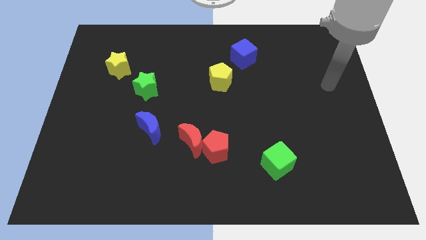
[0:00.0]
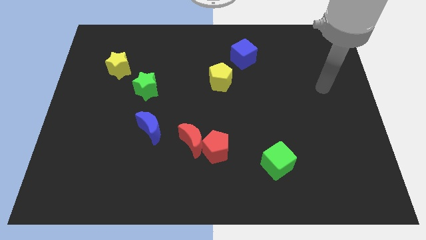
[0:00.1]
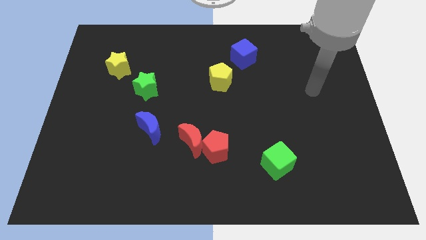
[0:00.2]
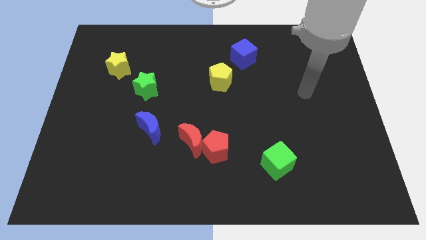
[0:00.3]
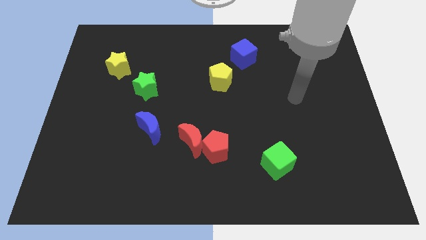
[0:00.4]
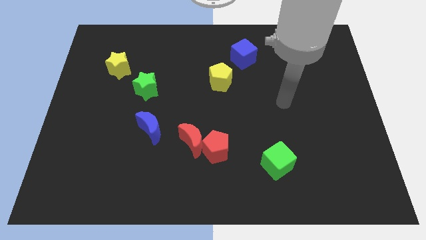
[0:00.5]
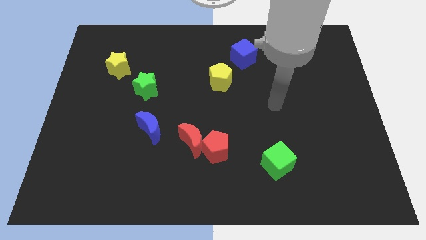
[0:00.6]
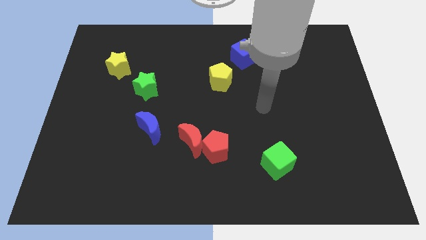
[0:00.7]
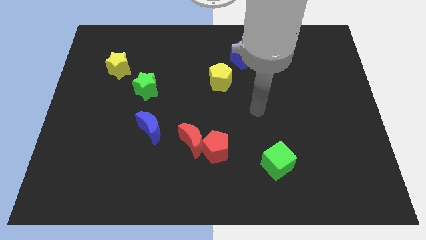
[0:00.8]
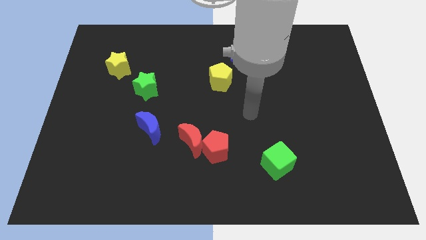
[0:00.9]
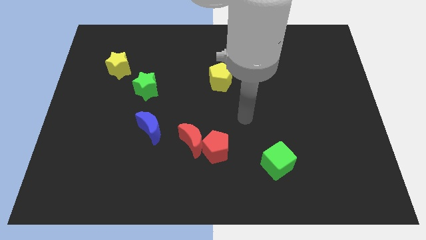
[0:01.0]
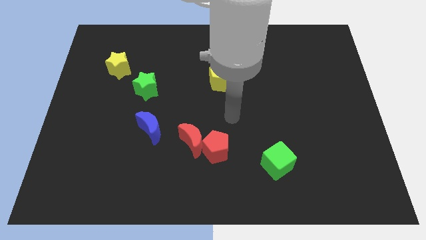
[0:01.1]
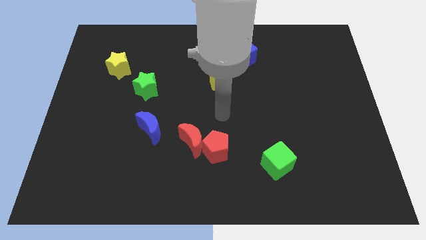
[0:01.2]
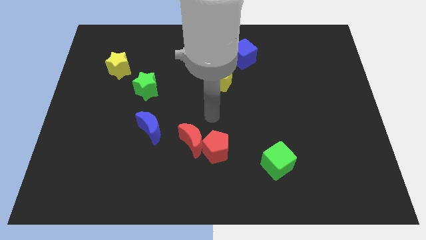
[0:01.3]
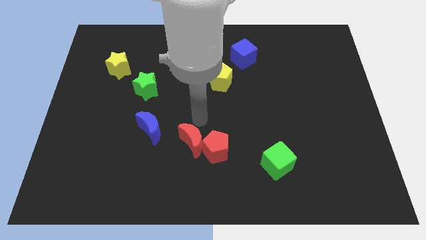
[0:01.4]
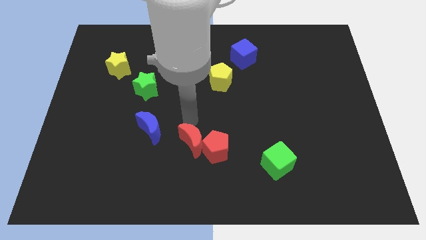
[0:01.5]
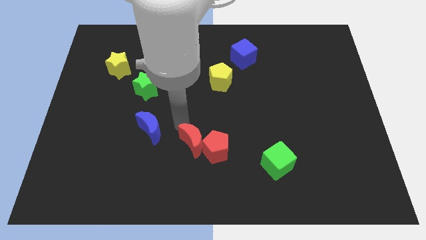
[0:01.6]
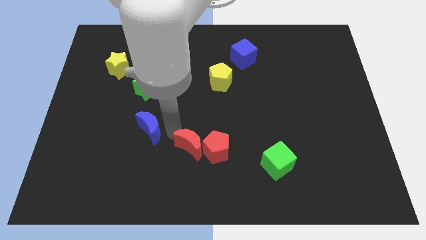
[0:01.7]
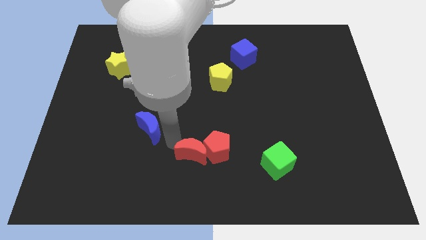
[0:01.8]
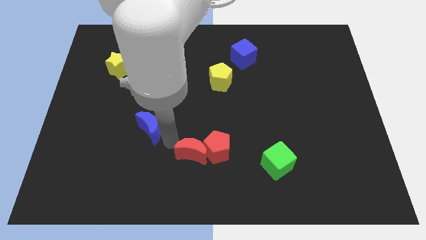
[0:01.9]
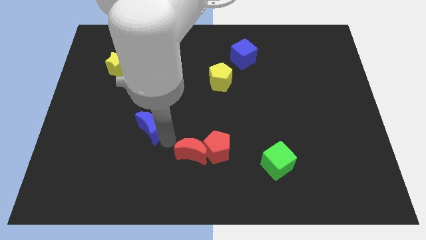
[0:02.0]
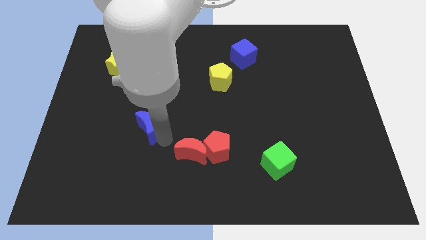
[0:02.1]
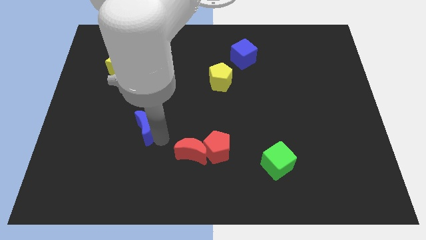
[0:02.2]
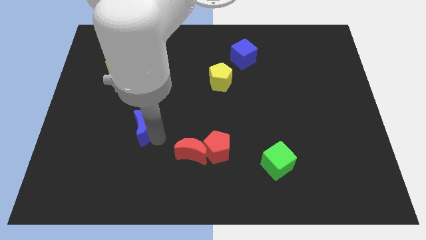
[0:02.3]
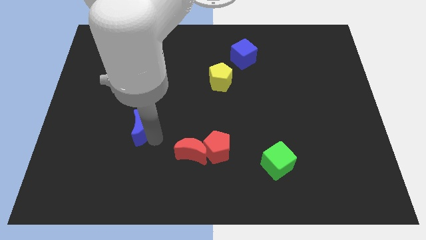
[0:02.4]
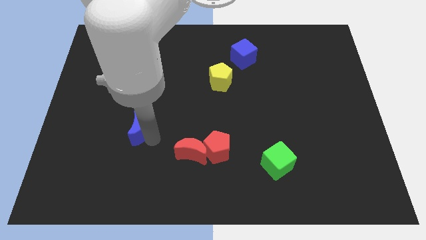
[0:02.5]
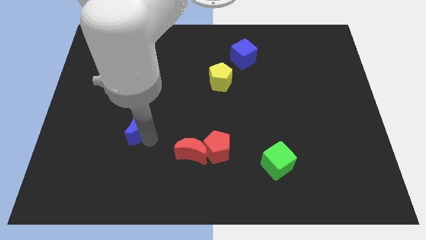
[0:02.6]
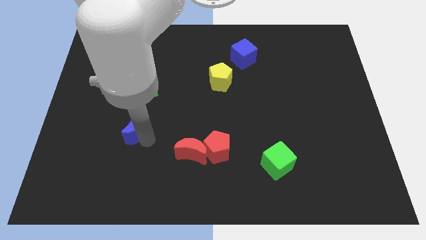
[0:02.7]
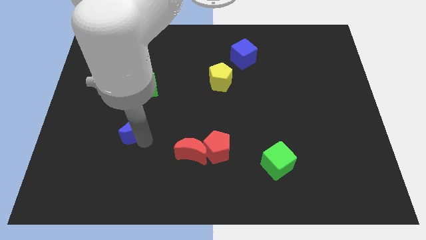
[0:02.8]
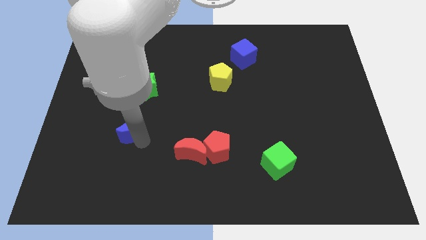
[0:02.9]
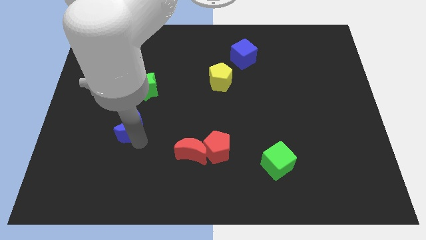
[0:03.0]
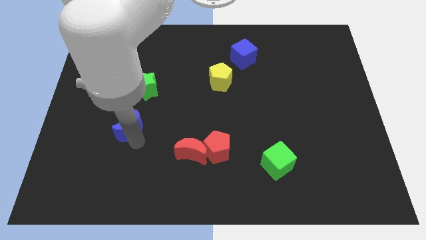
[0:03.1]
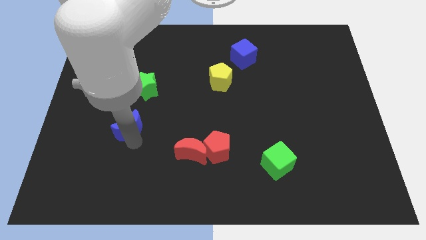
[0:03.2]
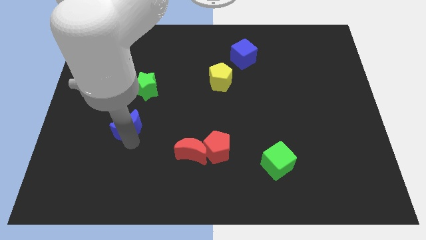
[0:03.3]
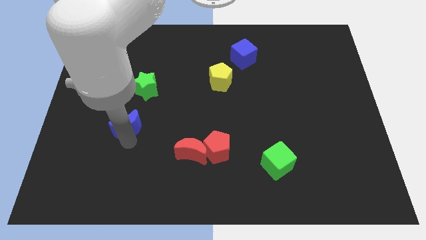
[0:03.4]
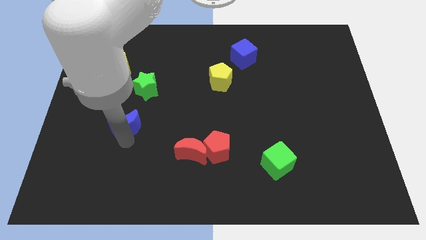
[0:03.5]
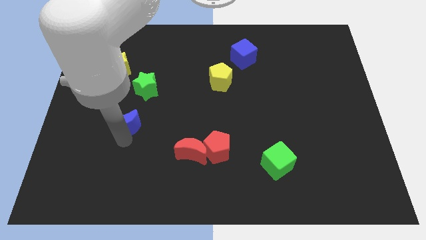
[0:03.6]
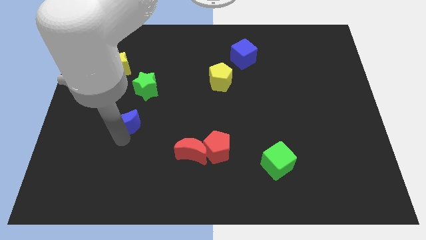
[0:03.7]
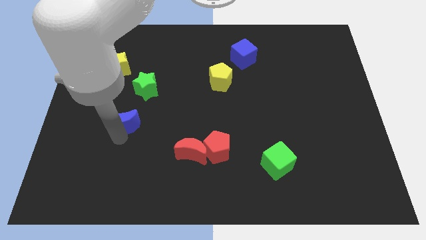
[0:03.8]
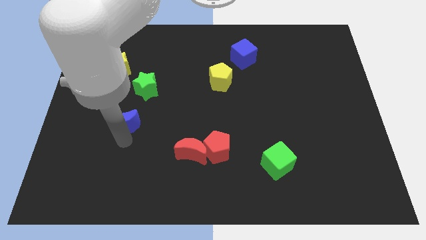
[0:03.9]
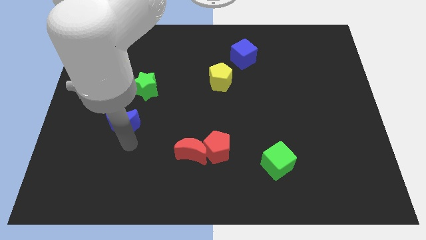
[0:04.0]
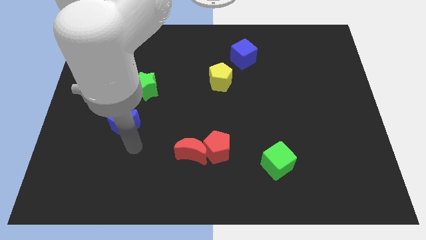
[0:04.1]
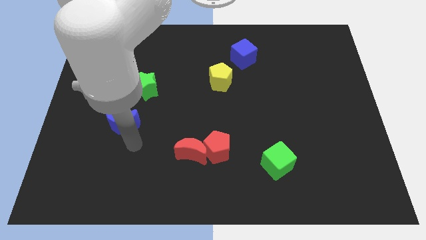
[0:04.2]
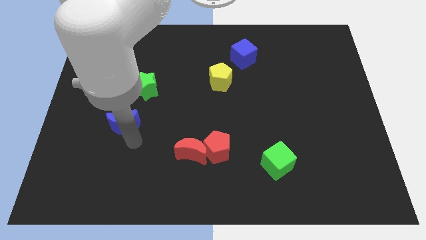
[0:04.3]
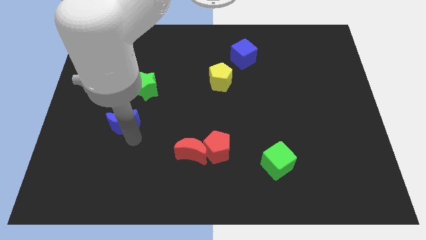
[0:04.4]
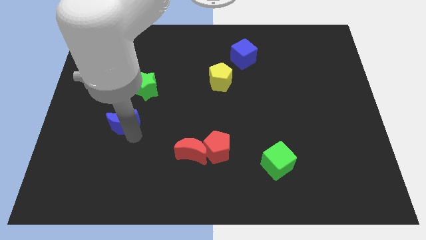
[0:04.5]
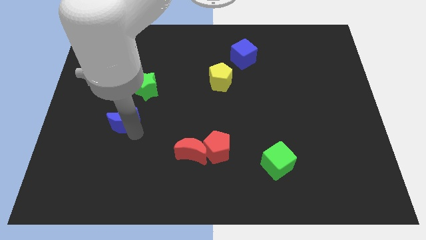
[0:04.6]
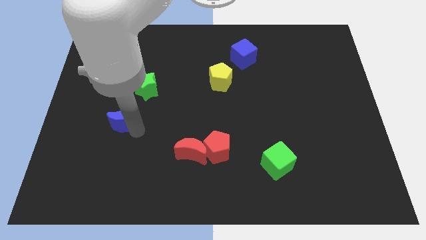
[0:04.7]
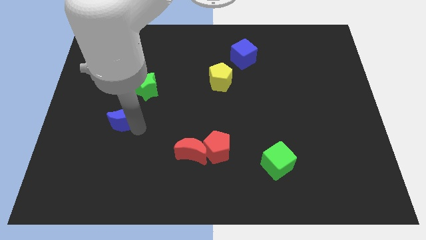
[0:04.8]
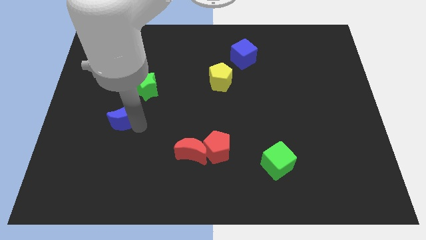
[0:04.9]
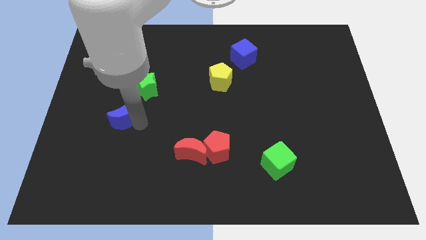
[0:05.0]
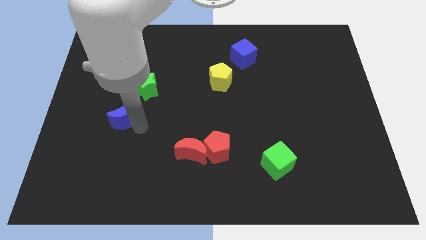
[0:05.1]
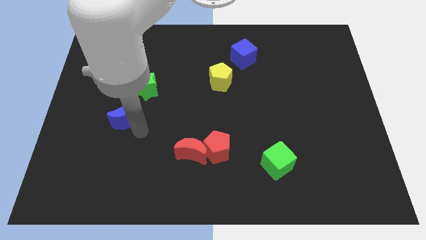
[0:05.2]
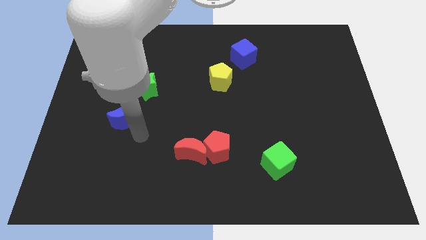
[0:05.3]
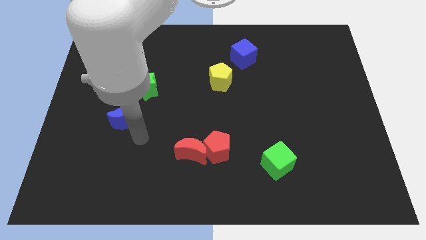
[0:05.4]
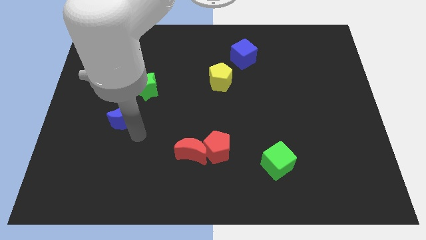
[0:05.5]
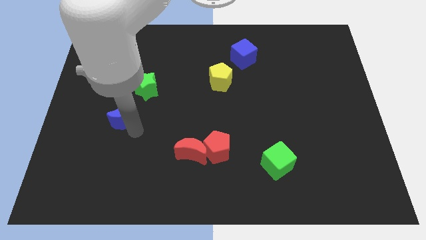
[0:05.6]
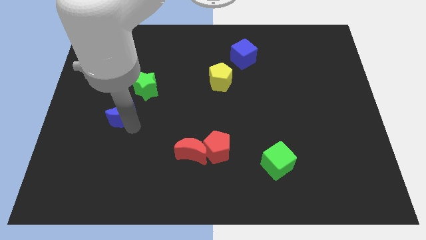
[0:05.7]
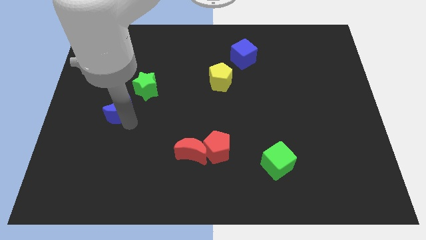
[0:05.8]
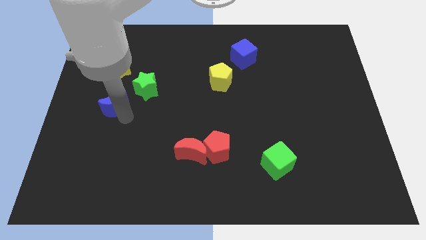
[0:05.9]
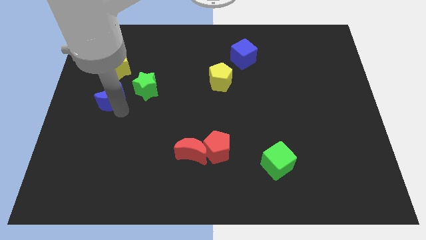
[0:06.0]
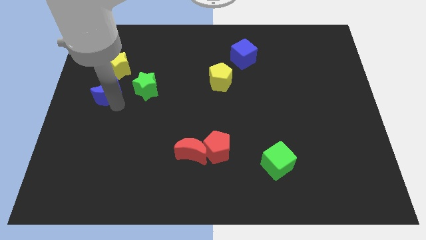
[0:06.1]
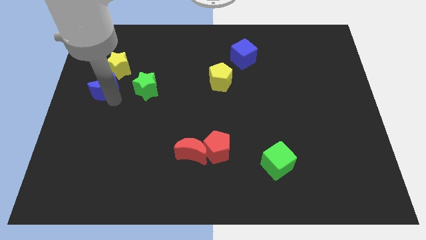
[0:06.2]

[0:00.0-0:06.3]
move the blue moon to the bottom left of the yellow star

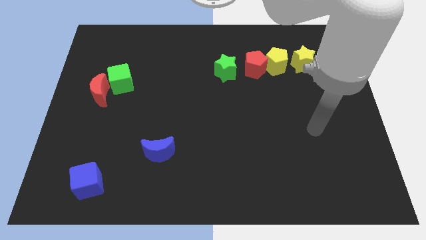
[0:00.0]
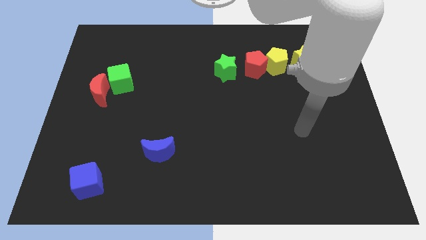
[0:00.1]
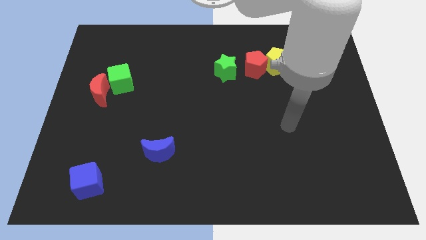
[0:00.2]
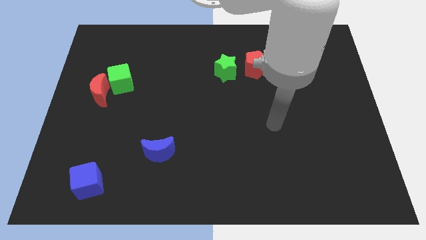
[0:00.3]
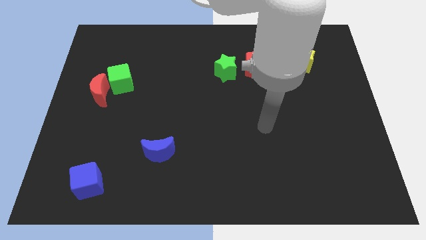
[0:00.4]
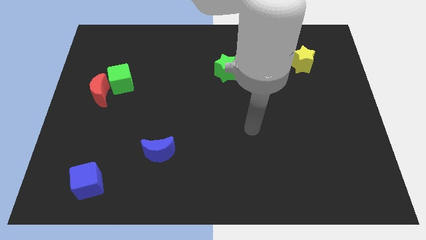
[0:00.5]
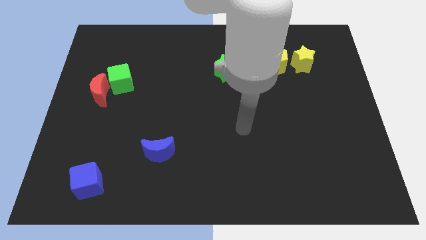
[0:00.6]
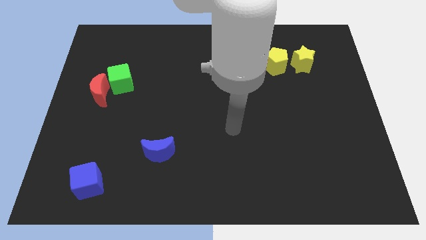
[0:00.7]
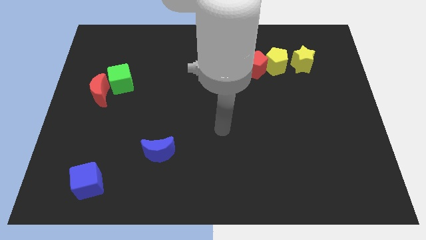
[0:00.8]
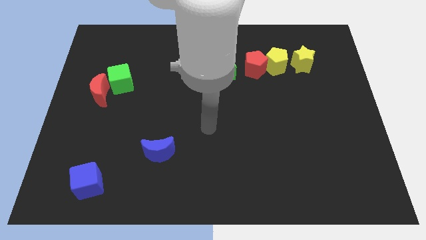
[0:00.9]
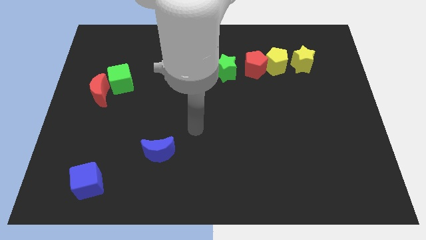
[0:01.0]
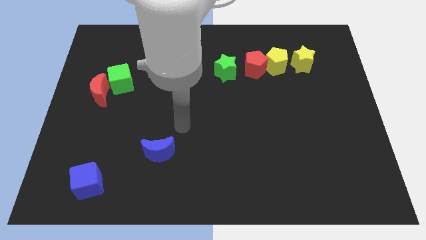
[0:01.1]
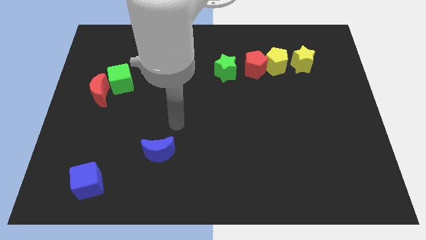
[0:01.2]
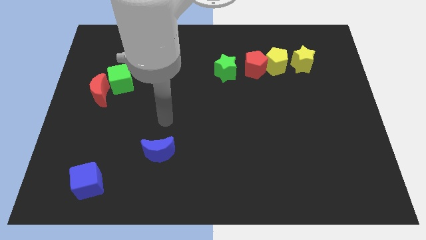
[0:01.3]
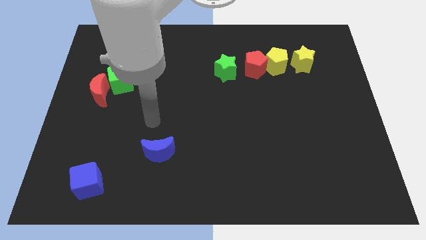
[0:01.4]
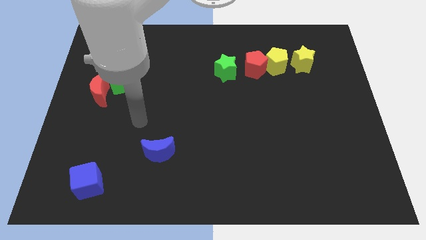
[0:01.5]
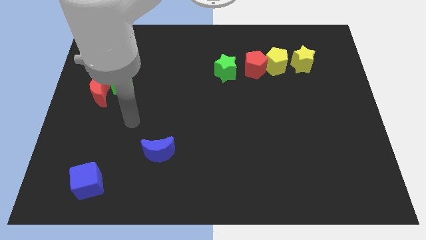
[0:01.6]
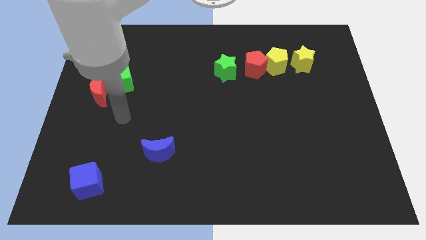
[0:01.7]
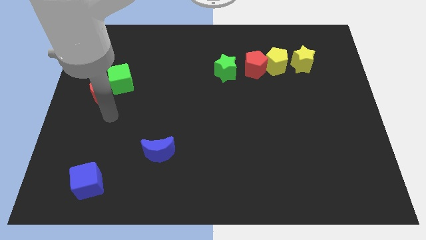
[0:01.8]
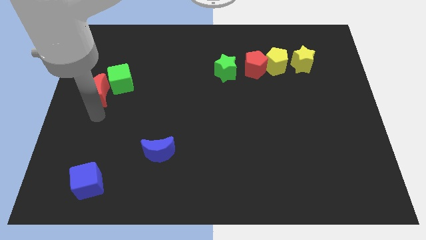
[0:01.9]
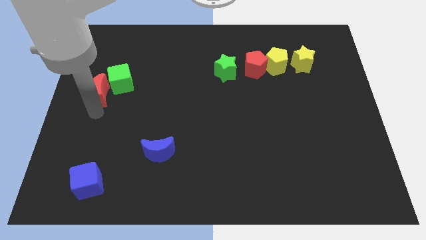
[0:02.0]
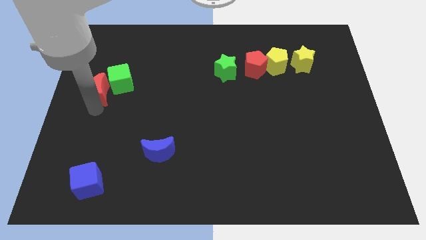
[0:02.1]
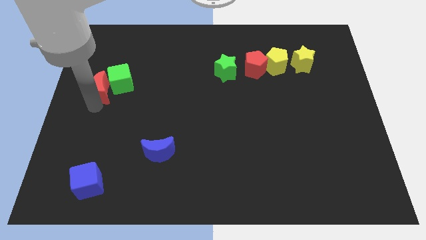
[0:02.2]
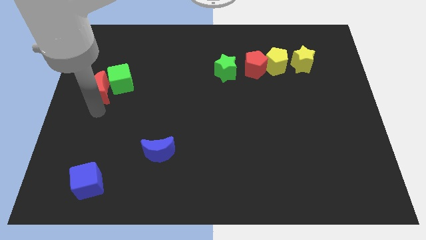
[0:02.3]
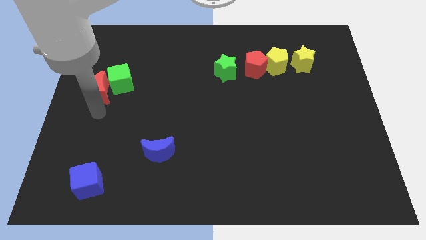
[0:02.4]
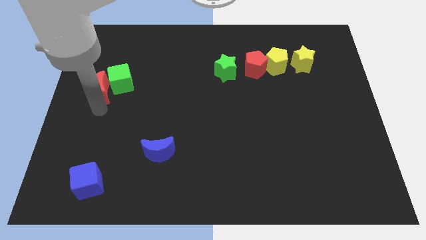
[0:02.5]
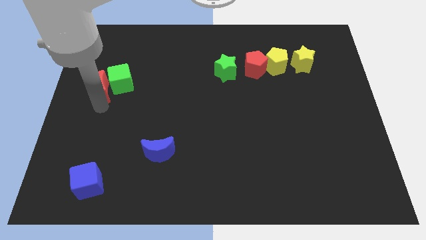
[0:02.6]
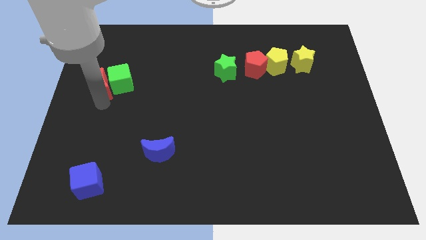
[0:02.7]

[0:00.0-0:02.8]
push the red moon diagonally up and to the left of the green cube
